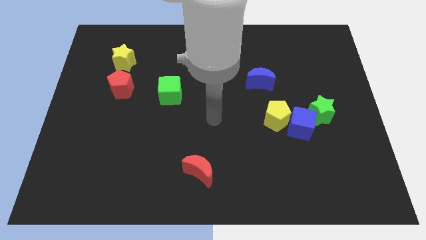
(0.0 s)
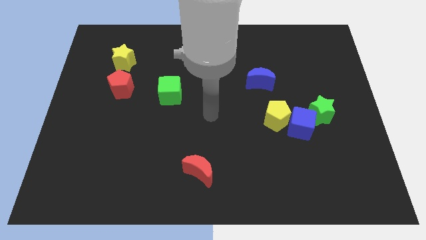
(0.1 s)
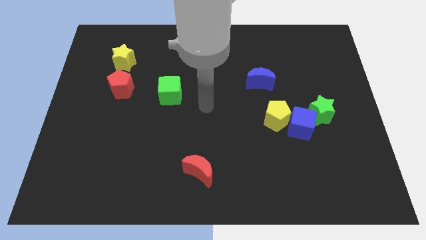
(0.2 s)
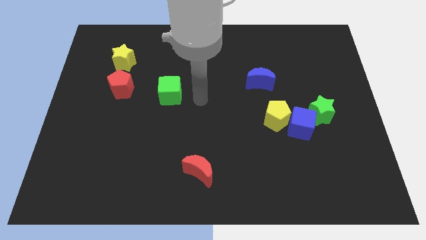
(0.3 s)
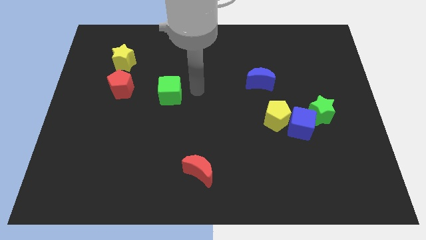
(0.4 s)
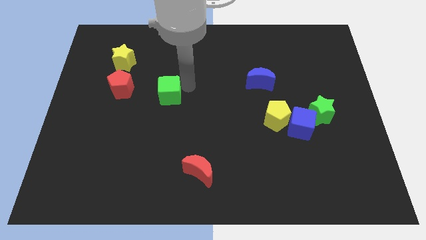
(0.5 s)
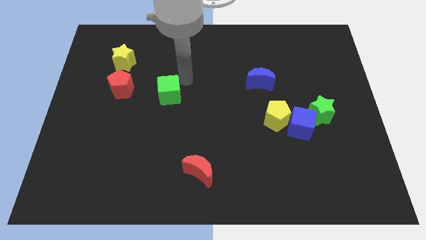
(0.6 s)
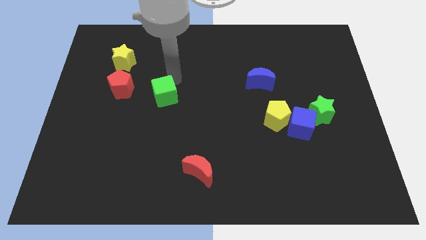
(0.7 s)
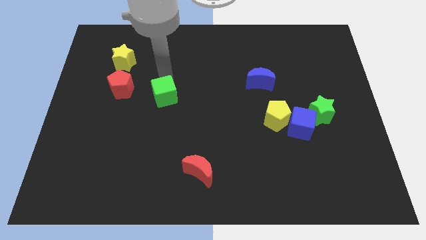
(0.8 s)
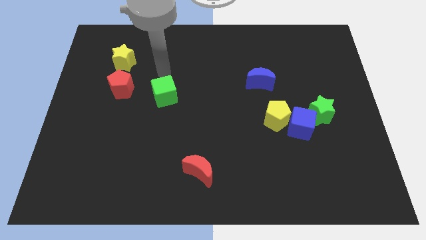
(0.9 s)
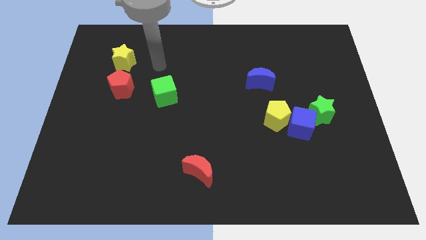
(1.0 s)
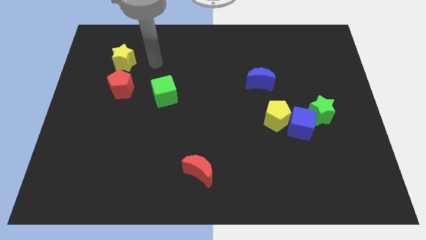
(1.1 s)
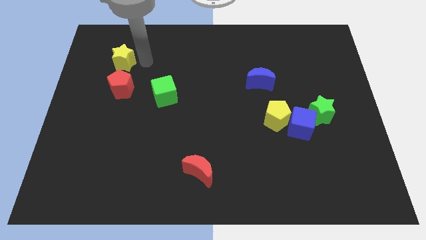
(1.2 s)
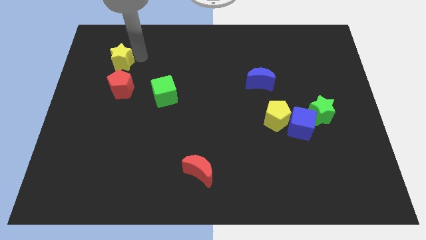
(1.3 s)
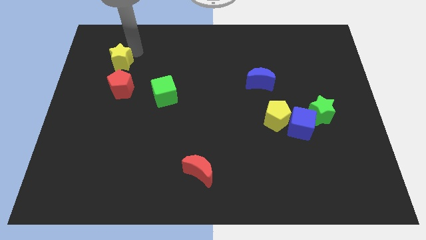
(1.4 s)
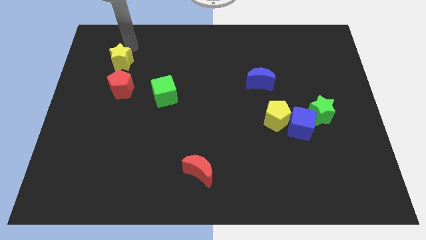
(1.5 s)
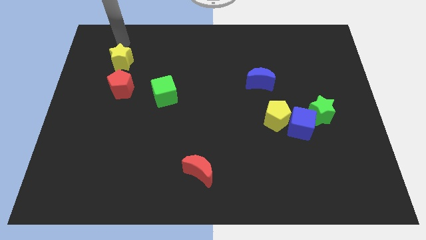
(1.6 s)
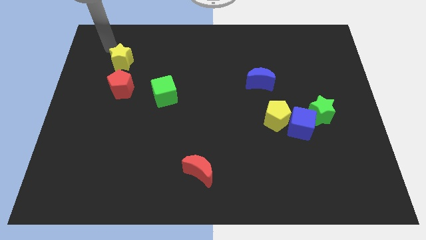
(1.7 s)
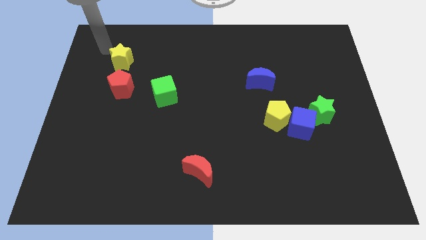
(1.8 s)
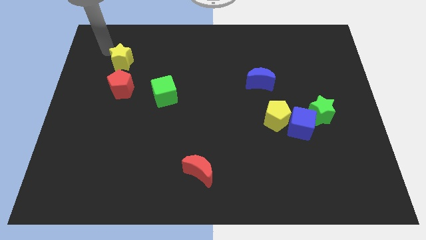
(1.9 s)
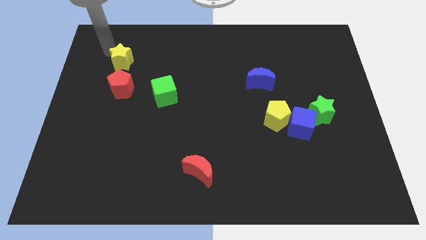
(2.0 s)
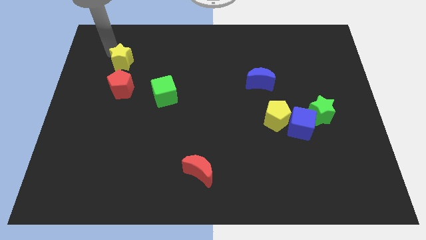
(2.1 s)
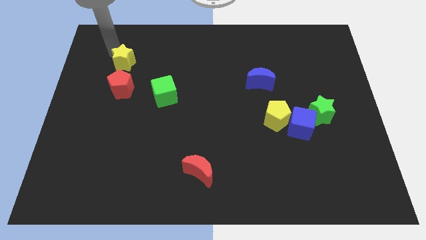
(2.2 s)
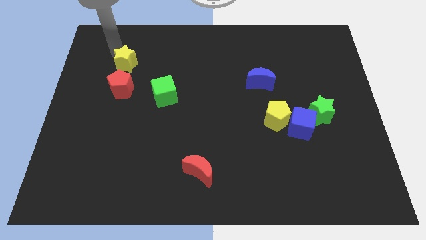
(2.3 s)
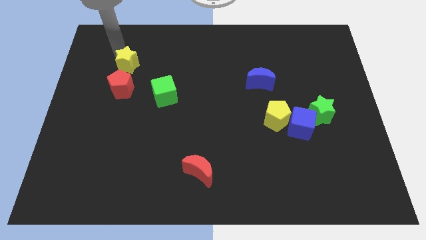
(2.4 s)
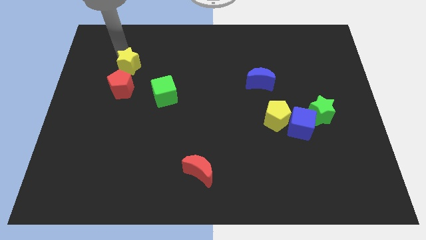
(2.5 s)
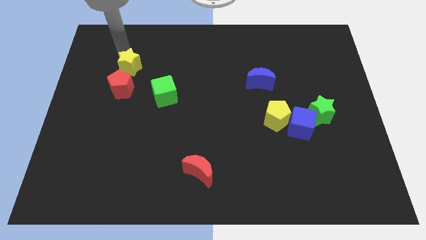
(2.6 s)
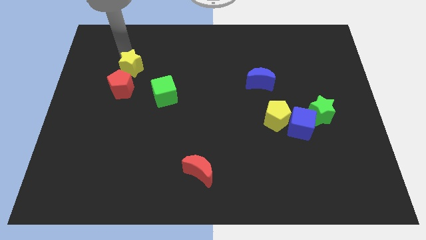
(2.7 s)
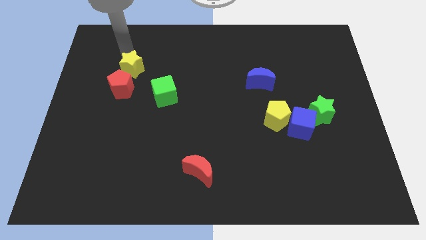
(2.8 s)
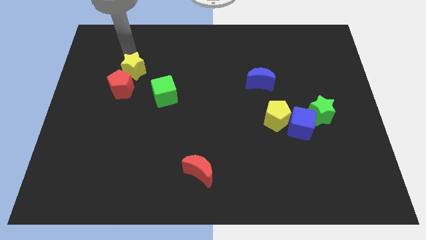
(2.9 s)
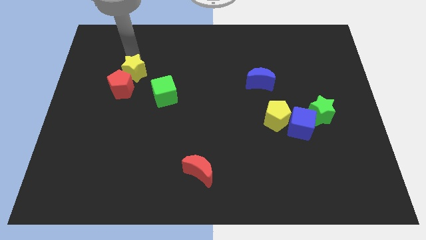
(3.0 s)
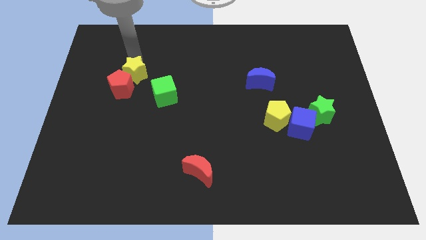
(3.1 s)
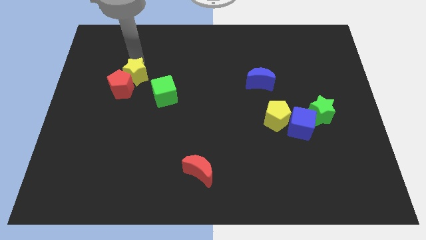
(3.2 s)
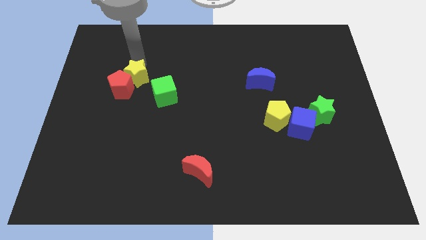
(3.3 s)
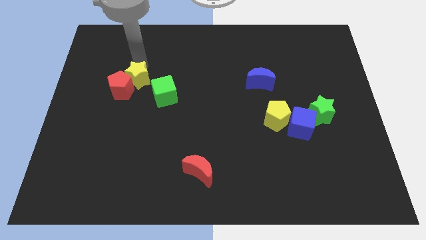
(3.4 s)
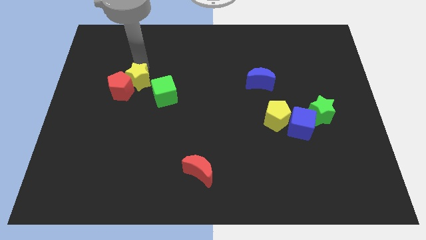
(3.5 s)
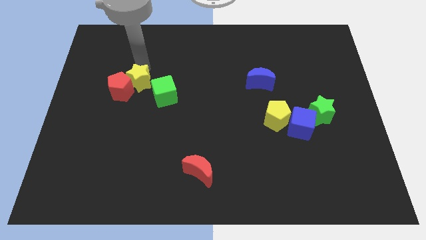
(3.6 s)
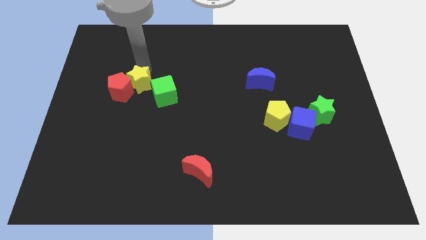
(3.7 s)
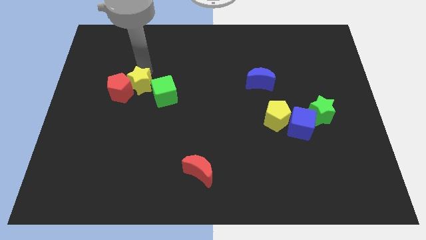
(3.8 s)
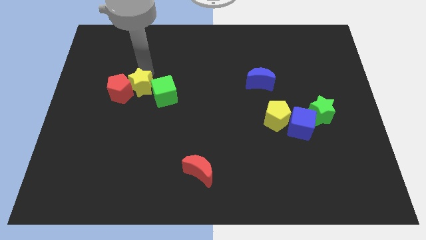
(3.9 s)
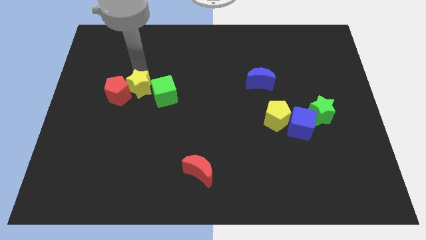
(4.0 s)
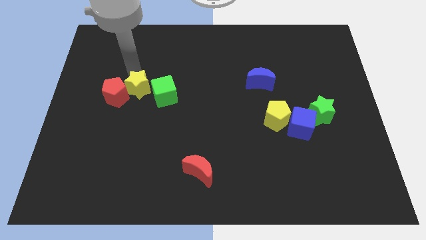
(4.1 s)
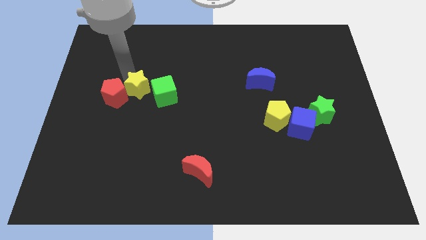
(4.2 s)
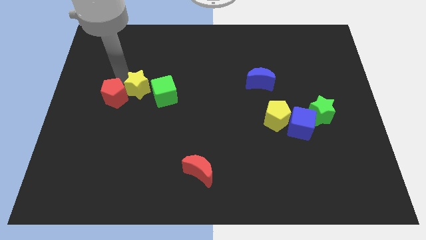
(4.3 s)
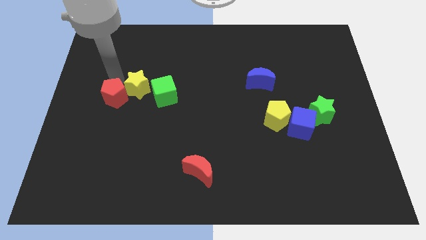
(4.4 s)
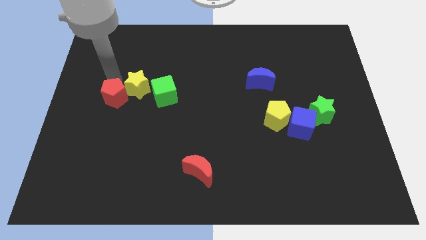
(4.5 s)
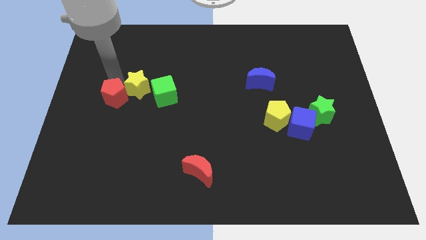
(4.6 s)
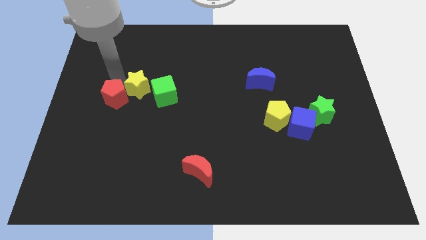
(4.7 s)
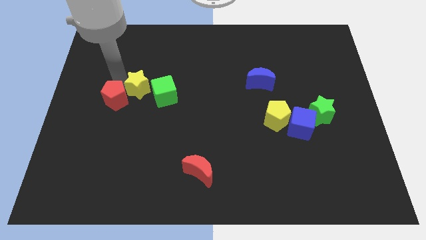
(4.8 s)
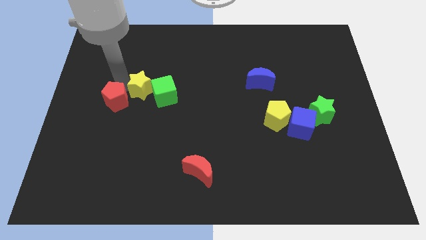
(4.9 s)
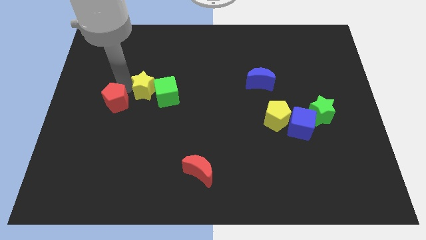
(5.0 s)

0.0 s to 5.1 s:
move the yellow star to the green cube

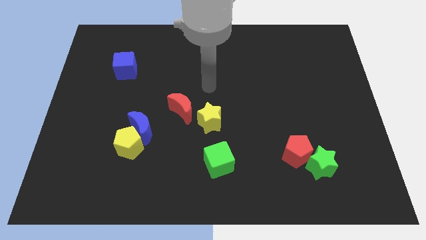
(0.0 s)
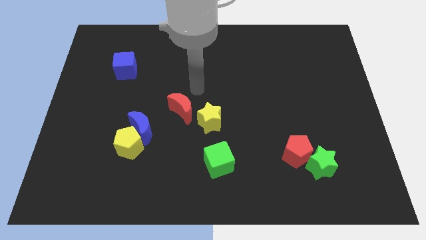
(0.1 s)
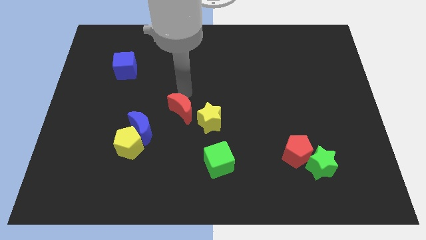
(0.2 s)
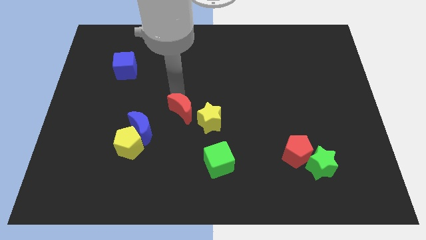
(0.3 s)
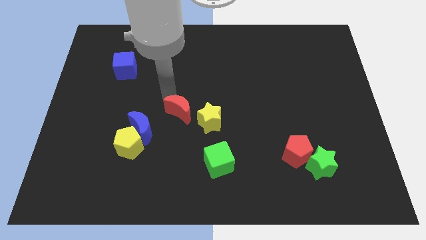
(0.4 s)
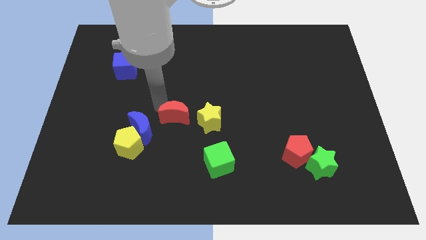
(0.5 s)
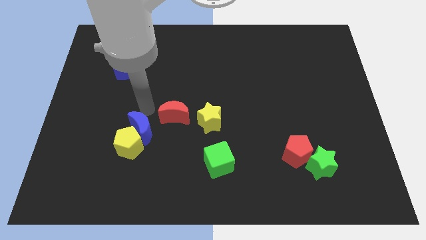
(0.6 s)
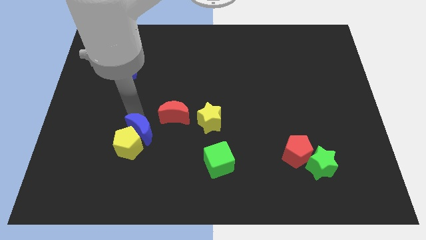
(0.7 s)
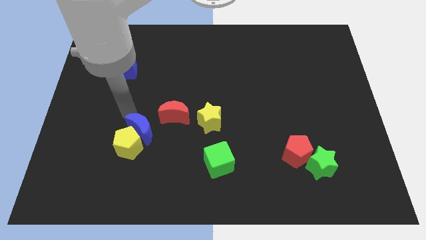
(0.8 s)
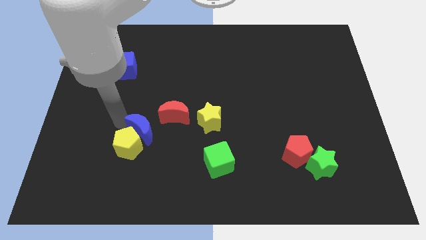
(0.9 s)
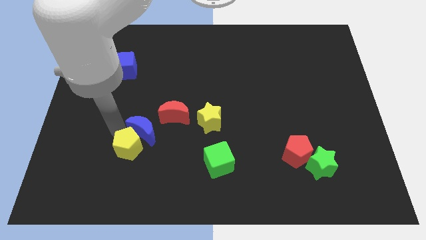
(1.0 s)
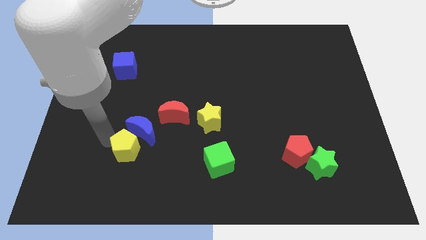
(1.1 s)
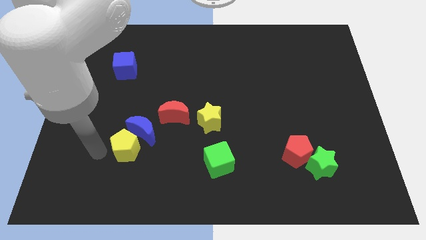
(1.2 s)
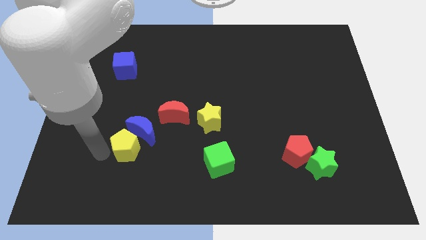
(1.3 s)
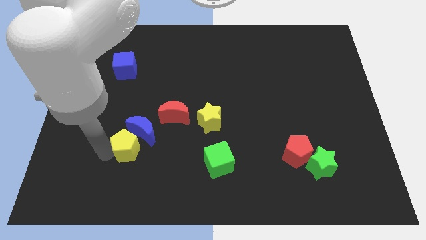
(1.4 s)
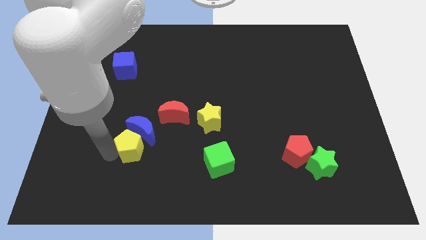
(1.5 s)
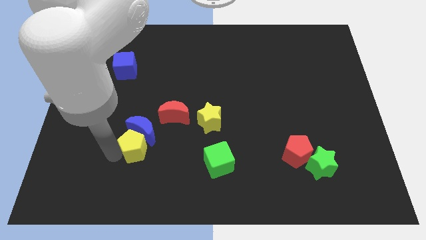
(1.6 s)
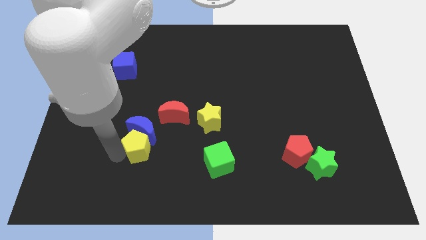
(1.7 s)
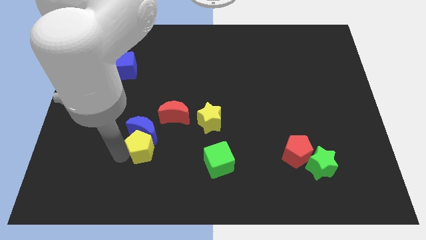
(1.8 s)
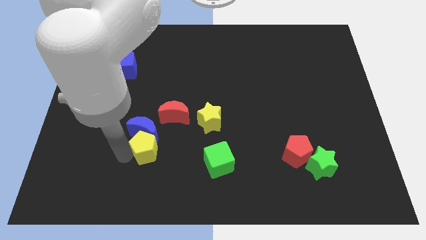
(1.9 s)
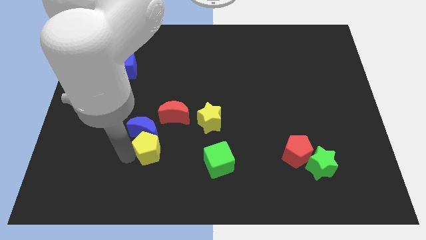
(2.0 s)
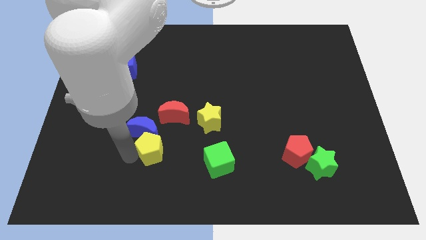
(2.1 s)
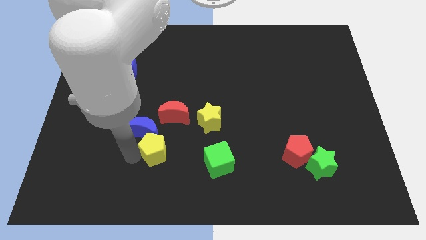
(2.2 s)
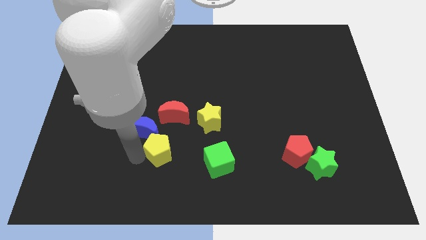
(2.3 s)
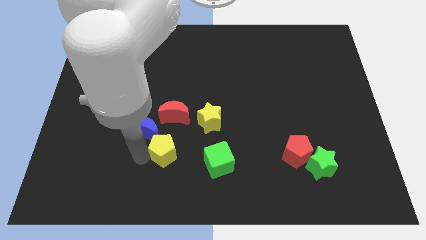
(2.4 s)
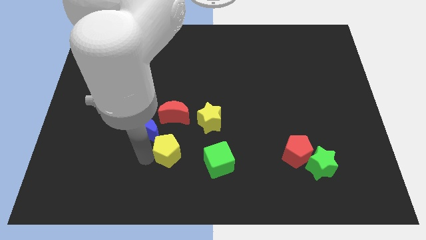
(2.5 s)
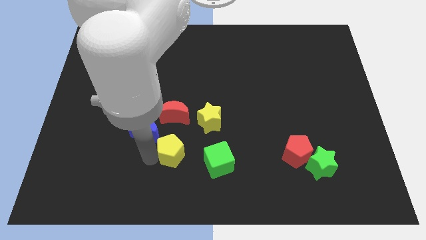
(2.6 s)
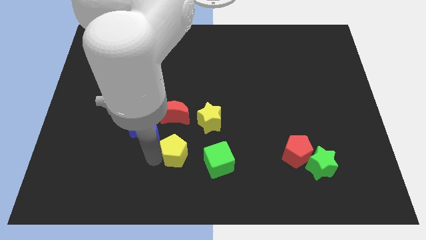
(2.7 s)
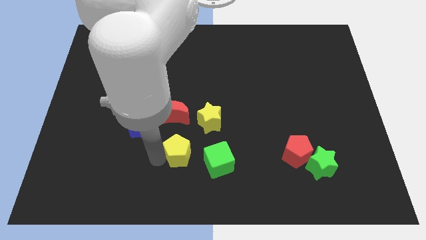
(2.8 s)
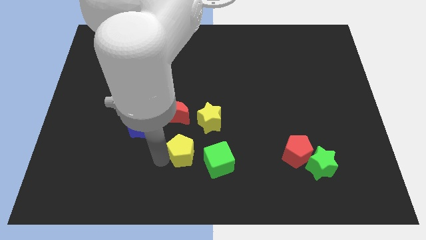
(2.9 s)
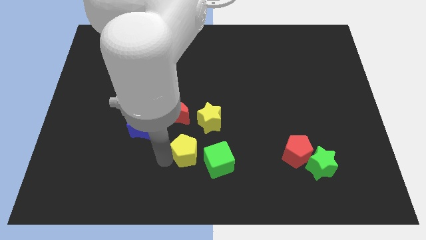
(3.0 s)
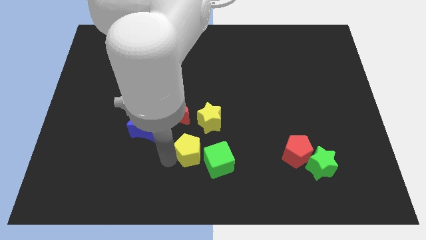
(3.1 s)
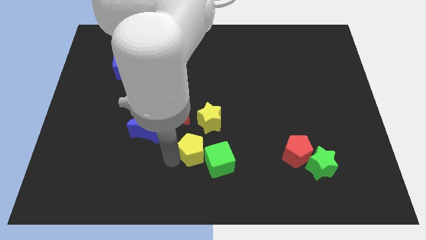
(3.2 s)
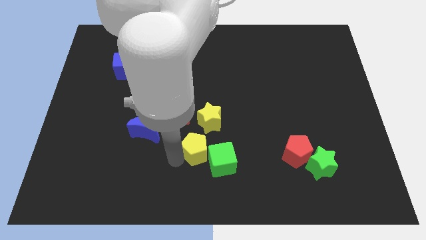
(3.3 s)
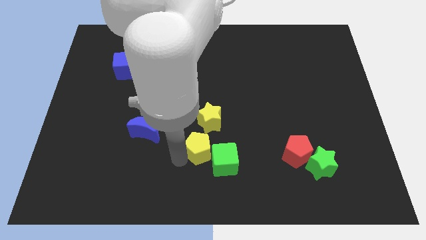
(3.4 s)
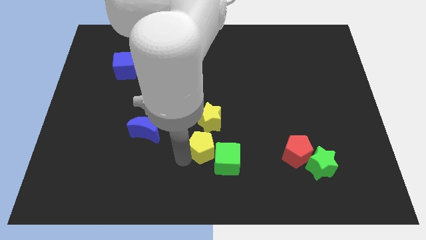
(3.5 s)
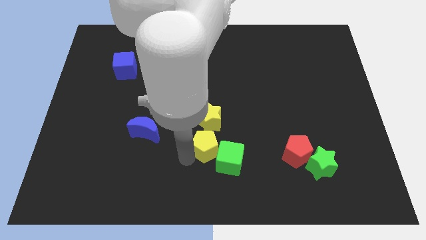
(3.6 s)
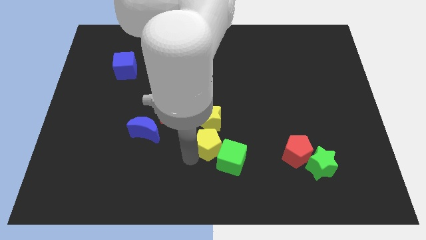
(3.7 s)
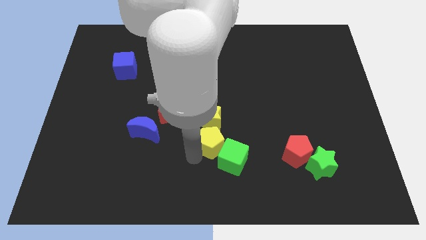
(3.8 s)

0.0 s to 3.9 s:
push the yellow pentagon to the yellow star
